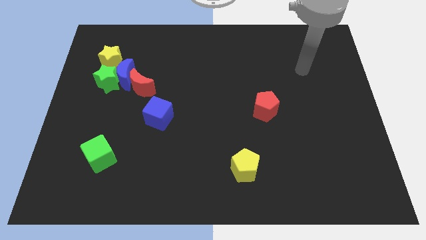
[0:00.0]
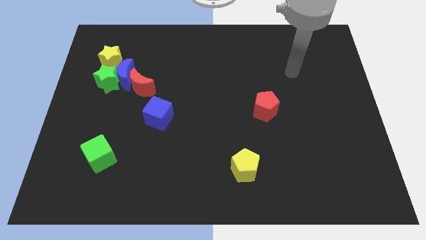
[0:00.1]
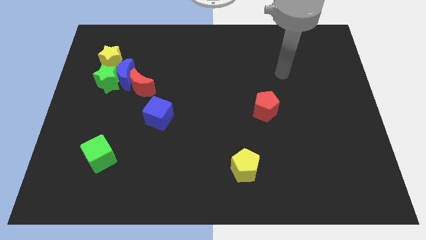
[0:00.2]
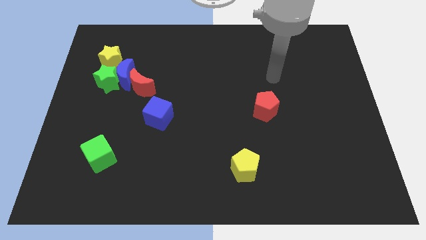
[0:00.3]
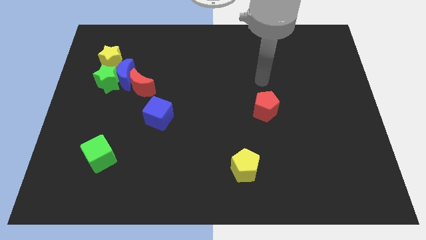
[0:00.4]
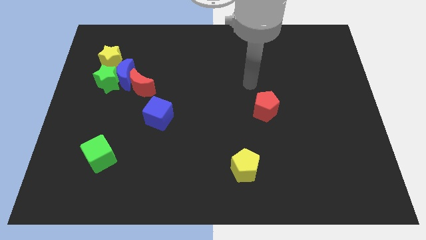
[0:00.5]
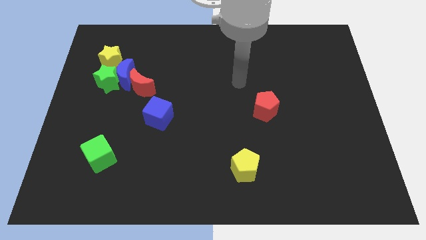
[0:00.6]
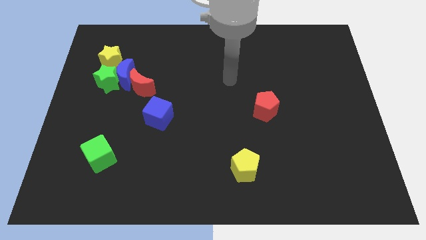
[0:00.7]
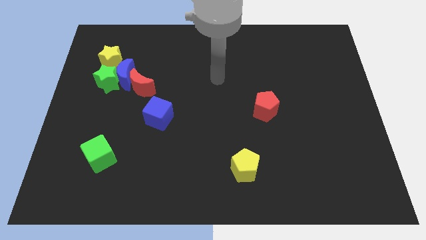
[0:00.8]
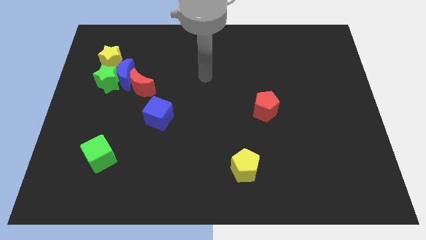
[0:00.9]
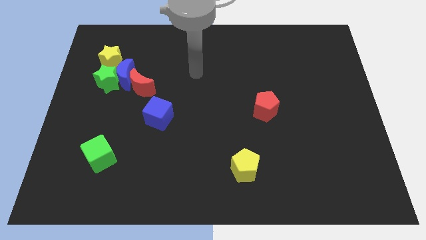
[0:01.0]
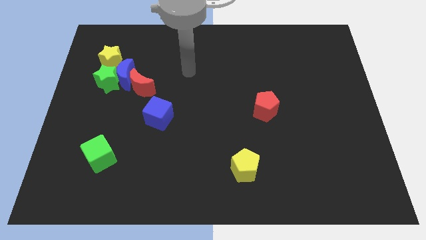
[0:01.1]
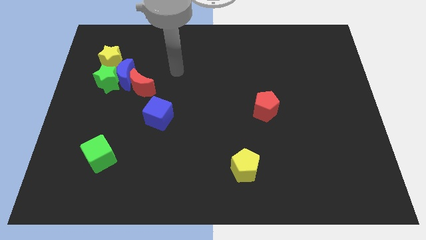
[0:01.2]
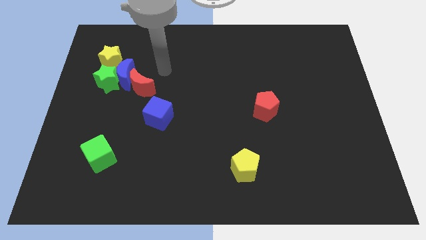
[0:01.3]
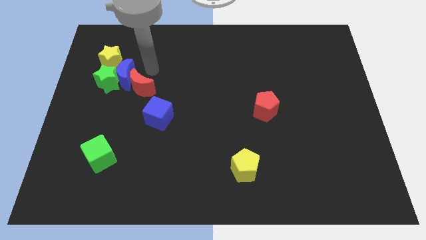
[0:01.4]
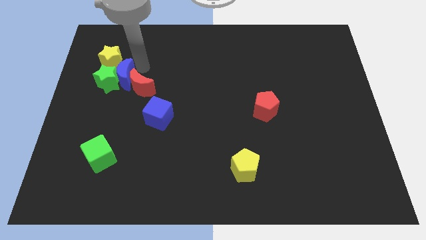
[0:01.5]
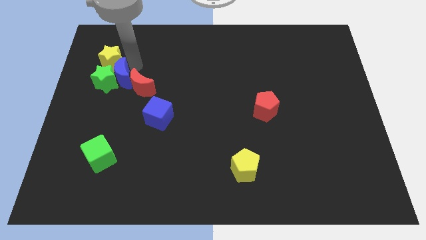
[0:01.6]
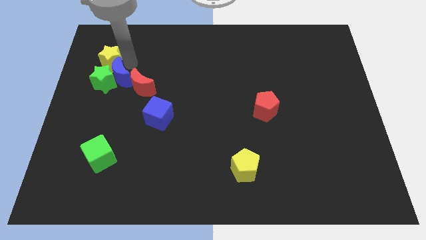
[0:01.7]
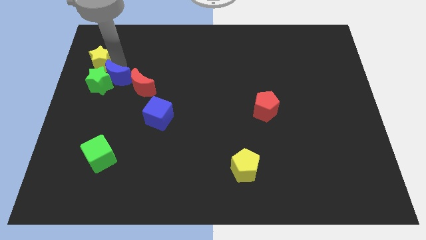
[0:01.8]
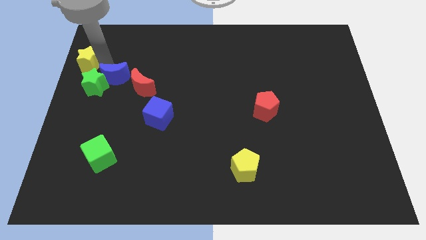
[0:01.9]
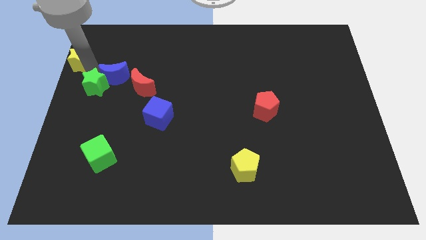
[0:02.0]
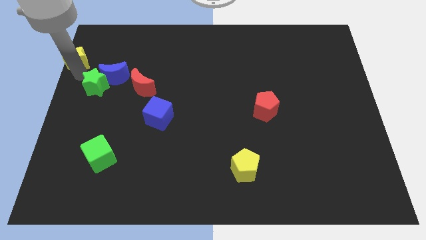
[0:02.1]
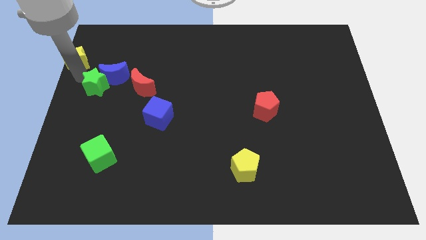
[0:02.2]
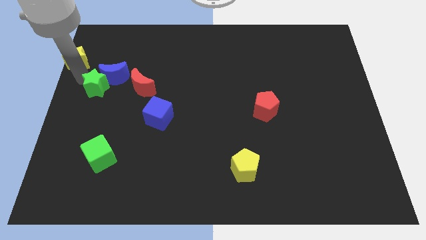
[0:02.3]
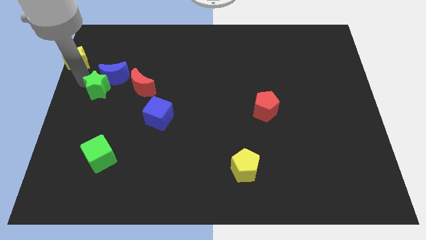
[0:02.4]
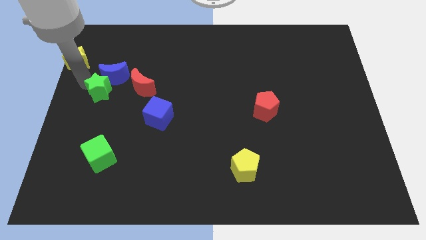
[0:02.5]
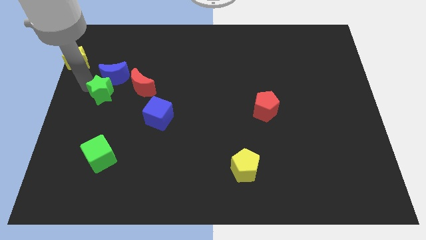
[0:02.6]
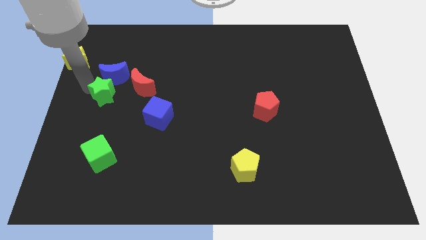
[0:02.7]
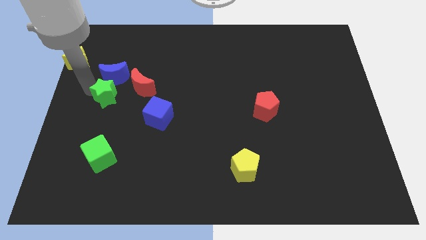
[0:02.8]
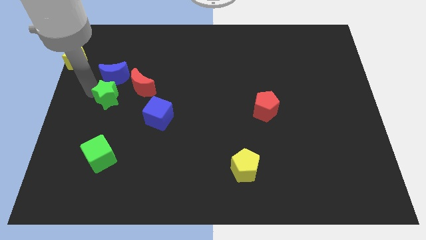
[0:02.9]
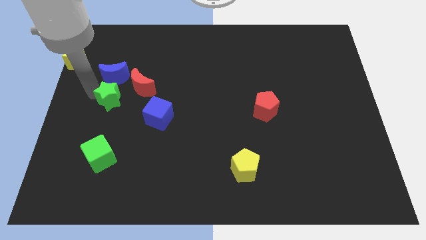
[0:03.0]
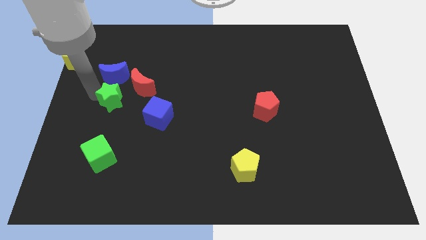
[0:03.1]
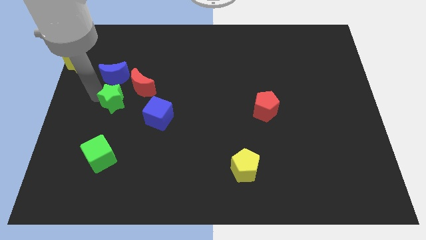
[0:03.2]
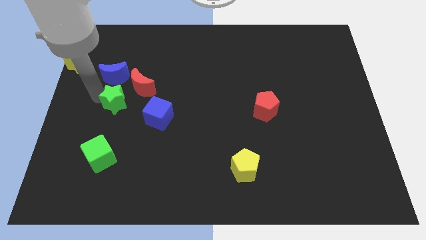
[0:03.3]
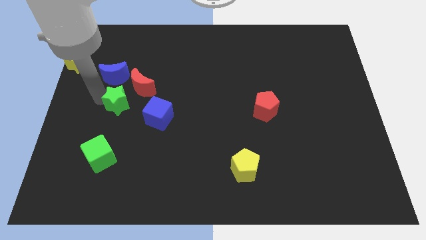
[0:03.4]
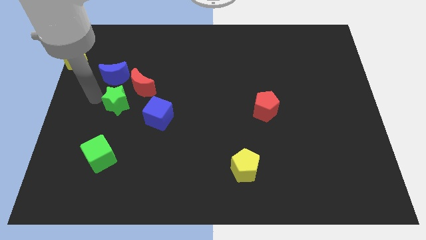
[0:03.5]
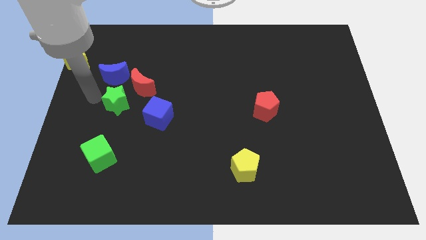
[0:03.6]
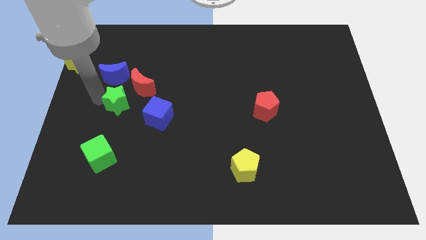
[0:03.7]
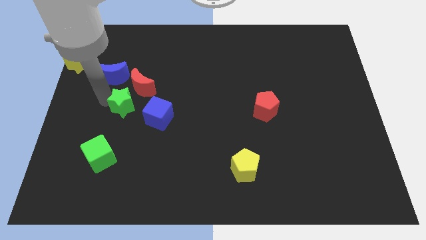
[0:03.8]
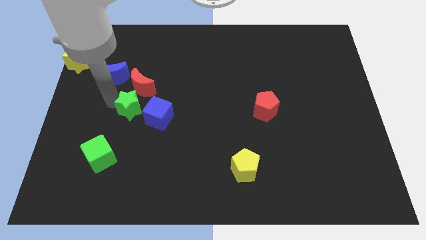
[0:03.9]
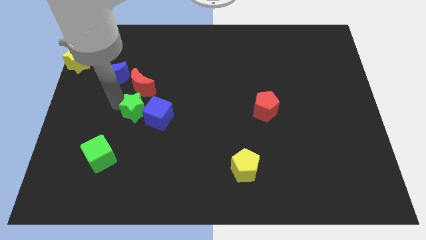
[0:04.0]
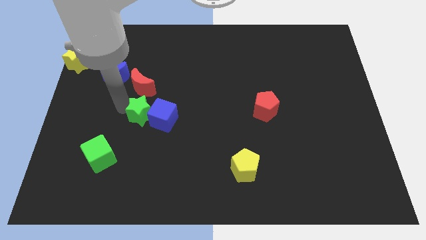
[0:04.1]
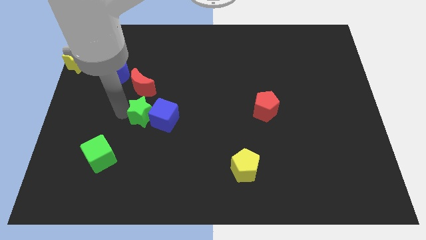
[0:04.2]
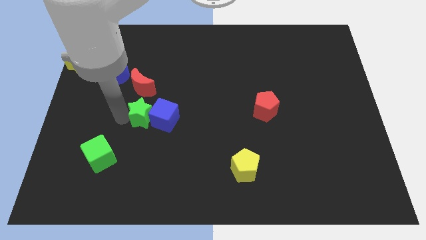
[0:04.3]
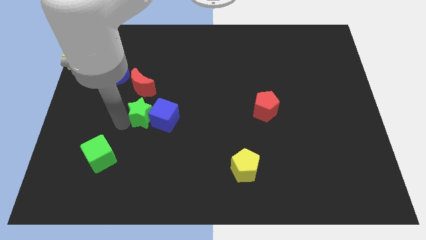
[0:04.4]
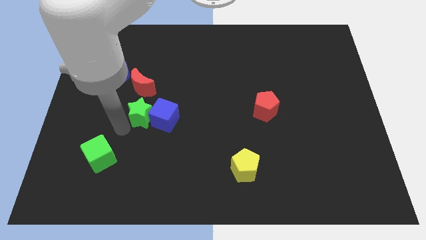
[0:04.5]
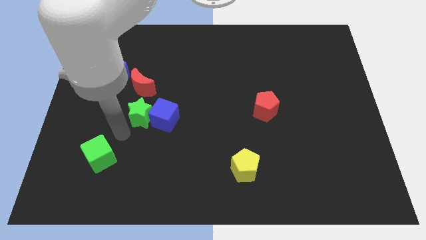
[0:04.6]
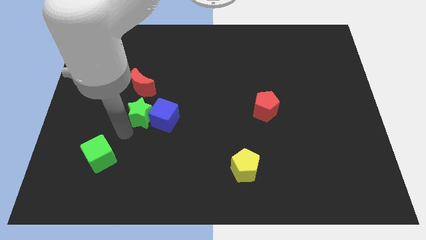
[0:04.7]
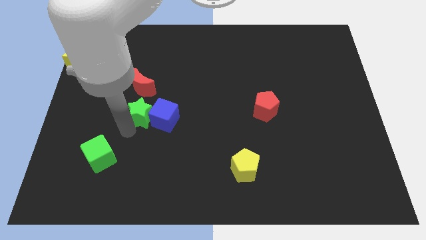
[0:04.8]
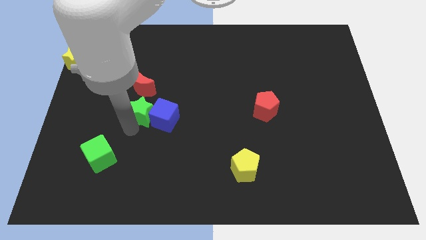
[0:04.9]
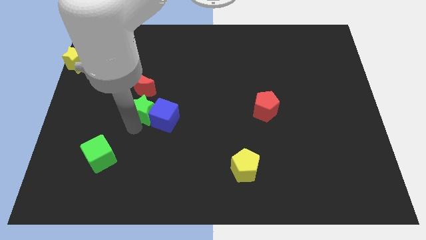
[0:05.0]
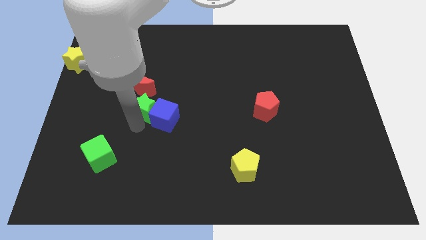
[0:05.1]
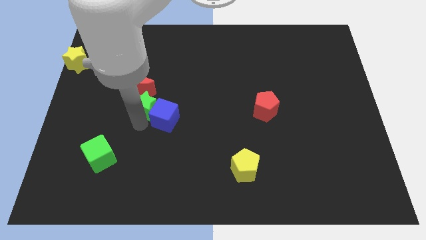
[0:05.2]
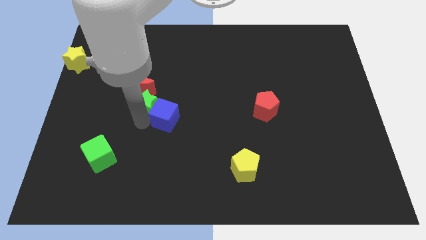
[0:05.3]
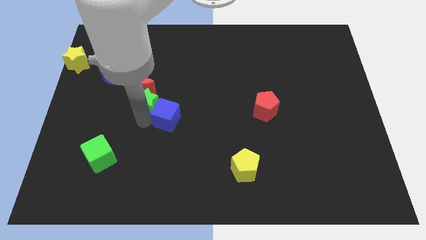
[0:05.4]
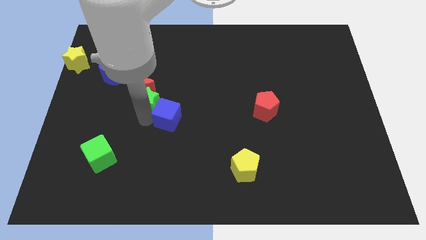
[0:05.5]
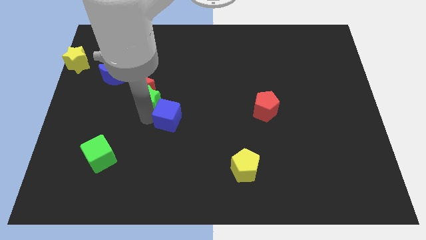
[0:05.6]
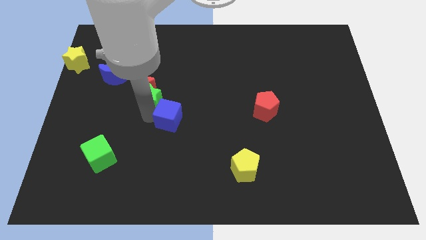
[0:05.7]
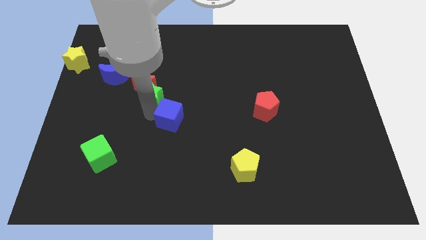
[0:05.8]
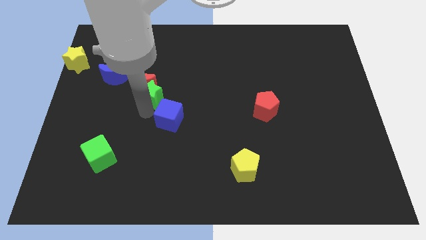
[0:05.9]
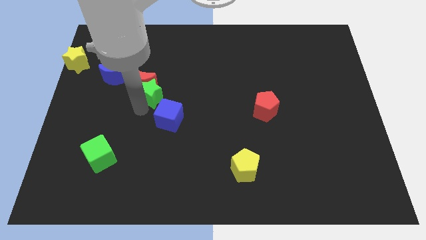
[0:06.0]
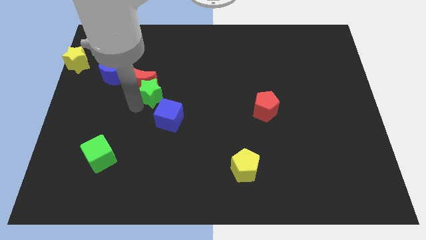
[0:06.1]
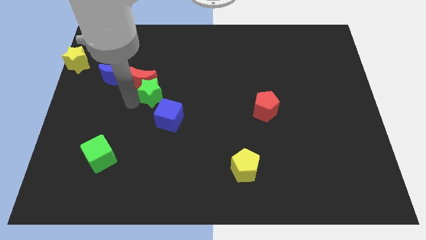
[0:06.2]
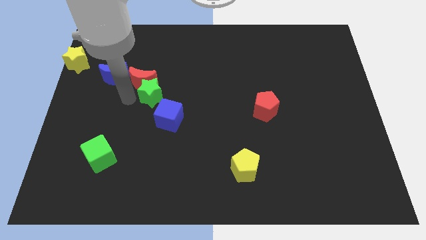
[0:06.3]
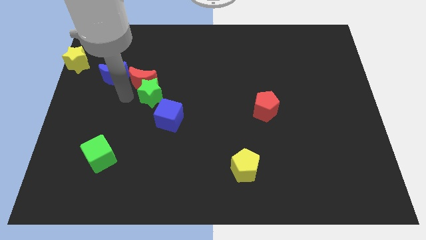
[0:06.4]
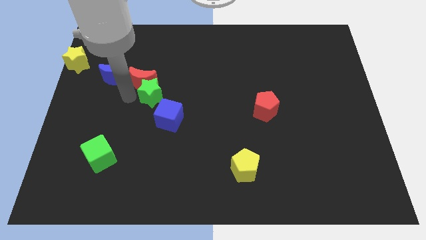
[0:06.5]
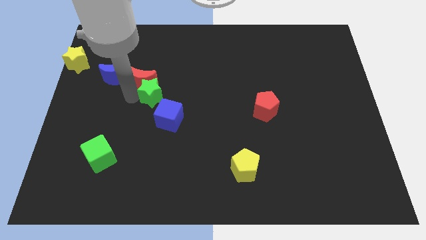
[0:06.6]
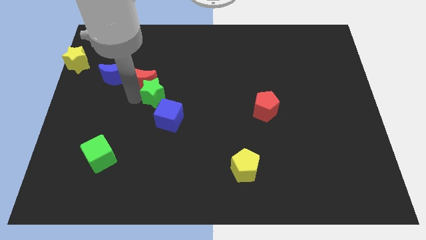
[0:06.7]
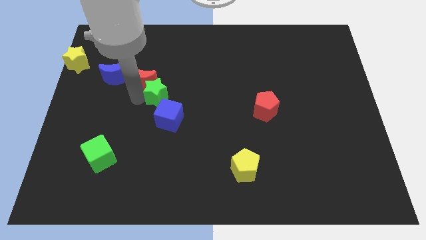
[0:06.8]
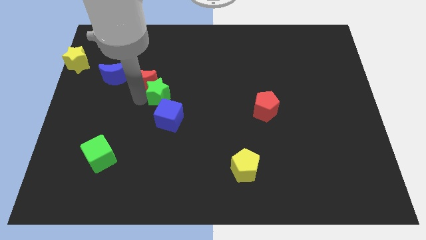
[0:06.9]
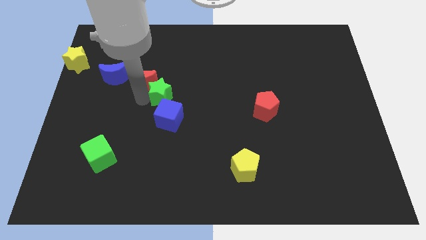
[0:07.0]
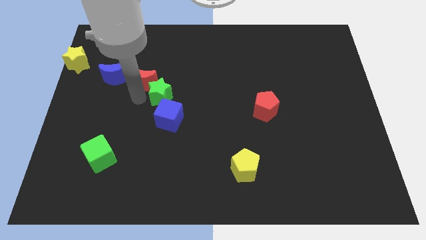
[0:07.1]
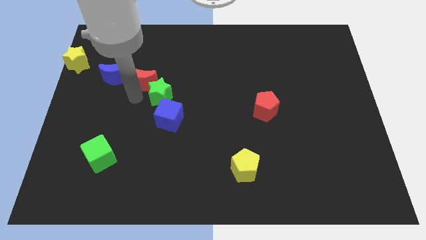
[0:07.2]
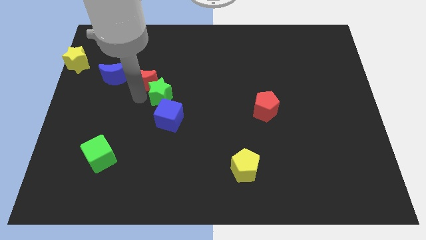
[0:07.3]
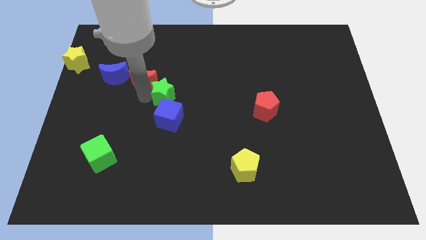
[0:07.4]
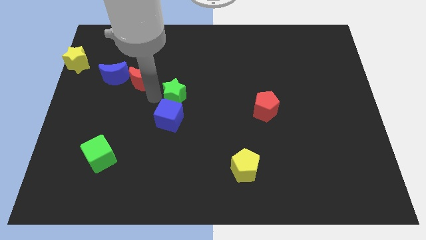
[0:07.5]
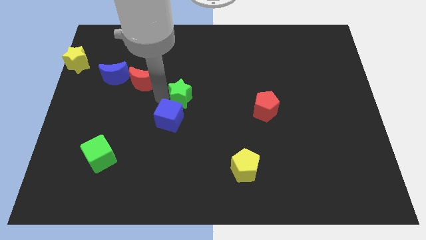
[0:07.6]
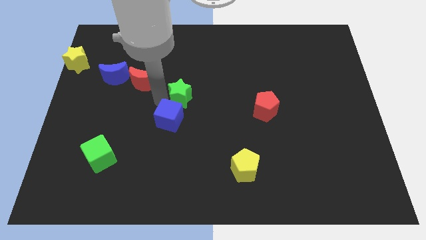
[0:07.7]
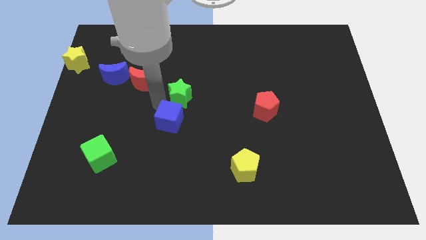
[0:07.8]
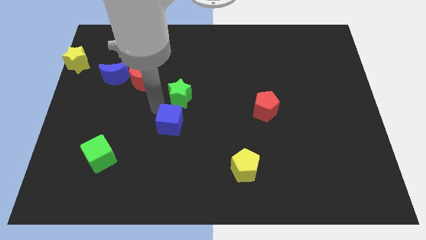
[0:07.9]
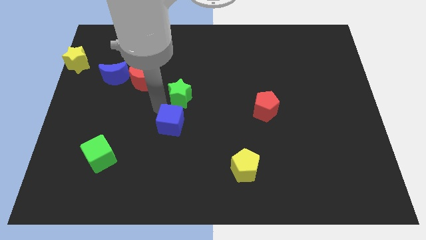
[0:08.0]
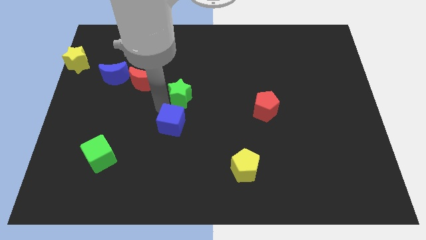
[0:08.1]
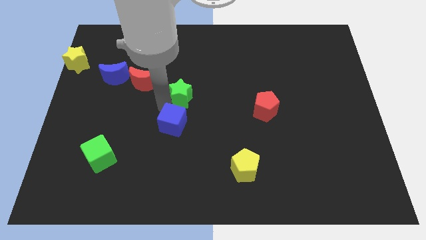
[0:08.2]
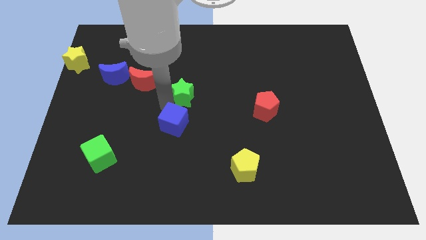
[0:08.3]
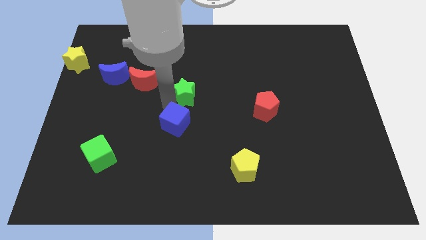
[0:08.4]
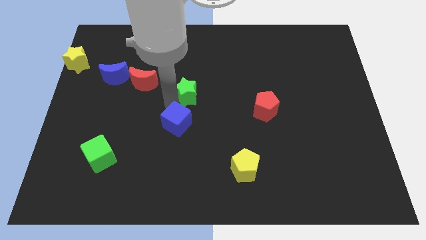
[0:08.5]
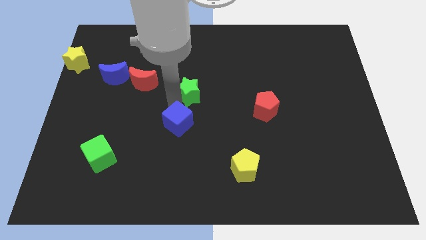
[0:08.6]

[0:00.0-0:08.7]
move the green star to the right
